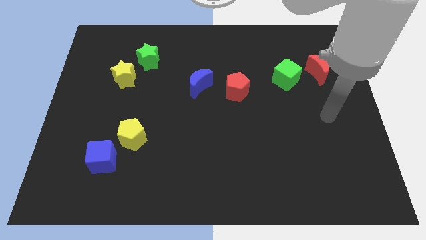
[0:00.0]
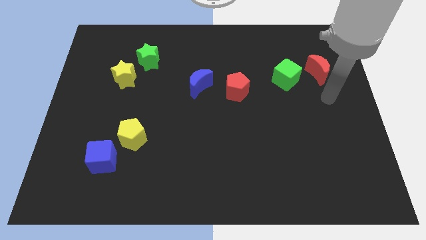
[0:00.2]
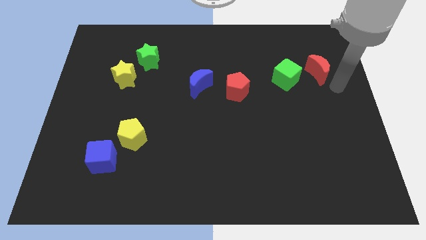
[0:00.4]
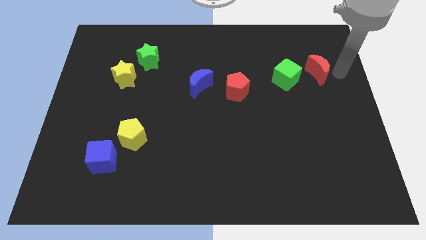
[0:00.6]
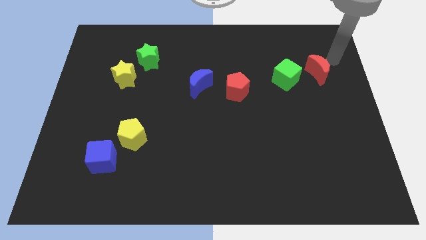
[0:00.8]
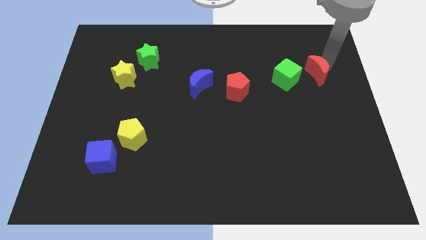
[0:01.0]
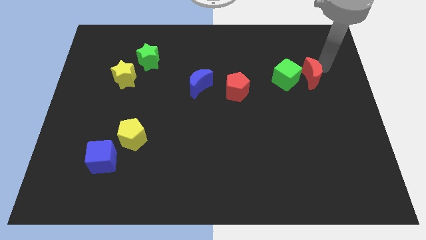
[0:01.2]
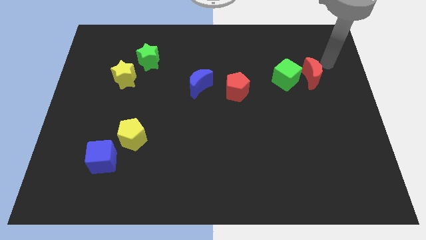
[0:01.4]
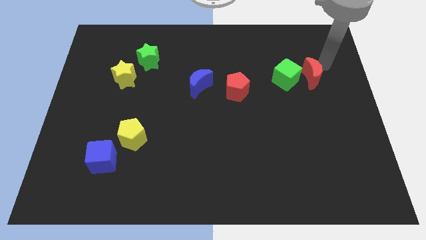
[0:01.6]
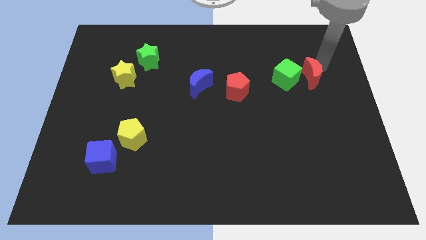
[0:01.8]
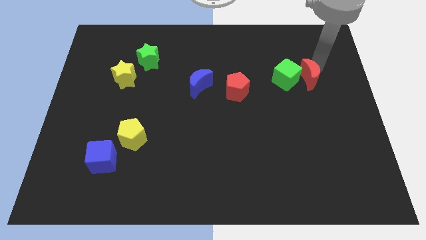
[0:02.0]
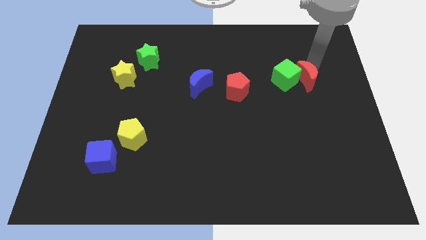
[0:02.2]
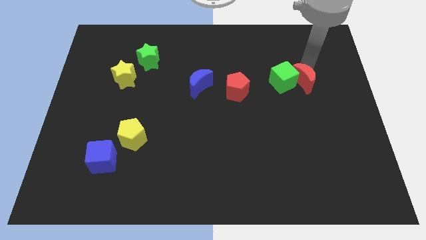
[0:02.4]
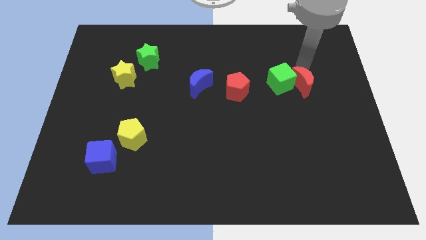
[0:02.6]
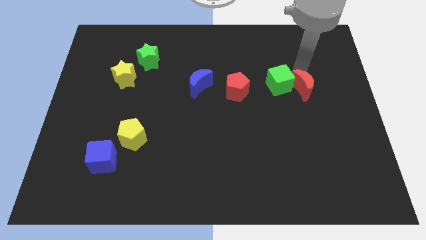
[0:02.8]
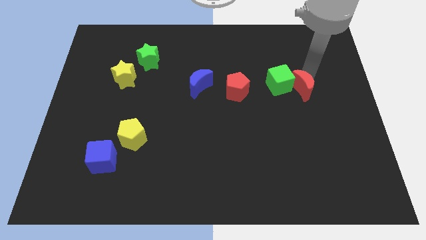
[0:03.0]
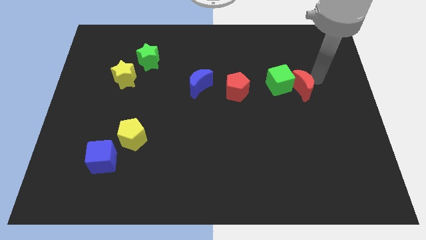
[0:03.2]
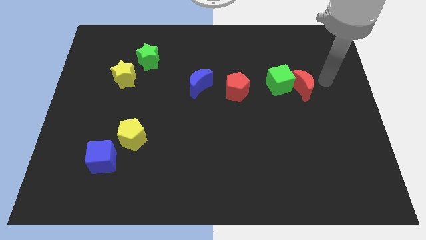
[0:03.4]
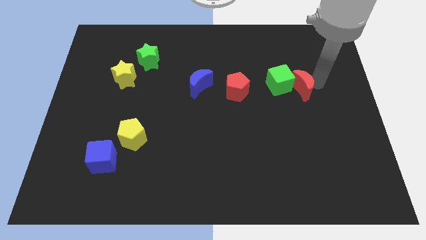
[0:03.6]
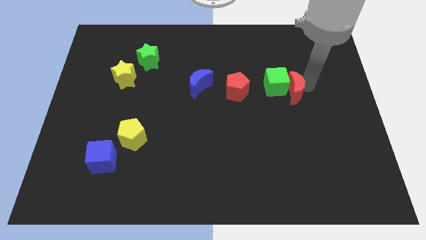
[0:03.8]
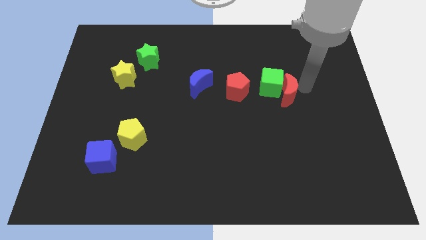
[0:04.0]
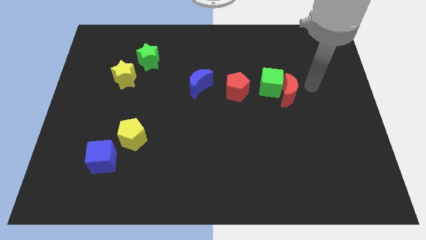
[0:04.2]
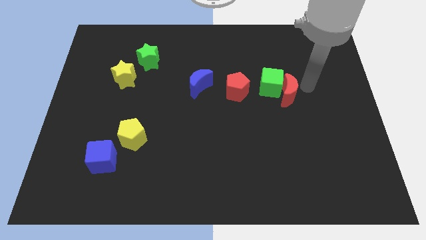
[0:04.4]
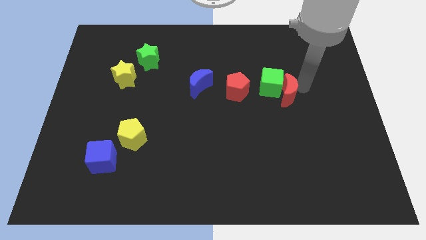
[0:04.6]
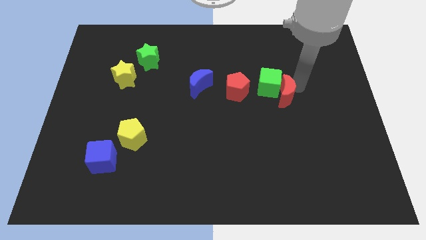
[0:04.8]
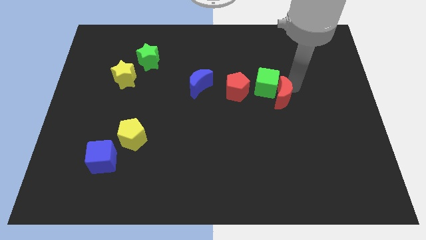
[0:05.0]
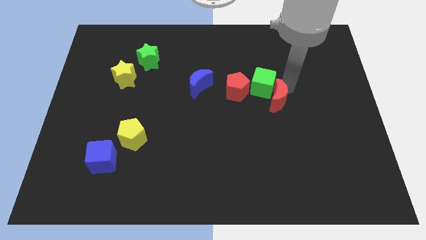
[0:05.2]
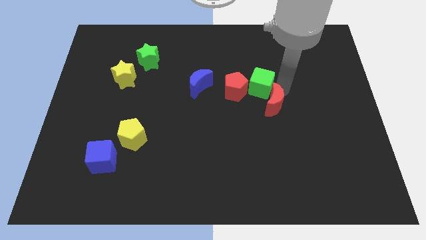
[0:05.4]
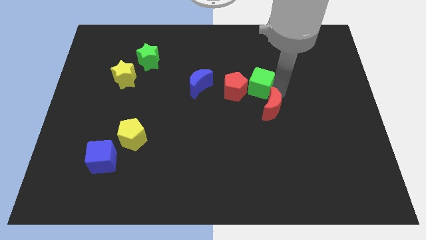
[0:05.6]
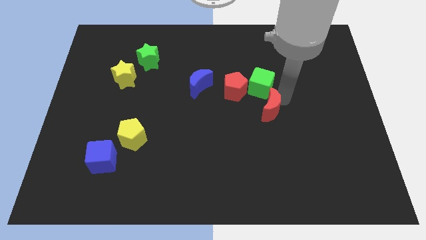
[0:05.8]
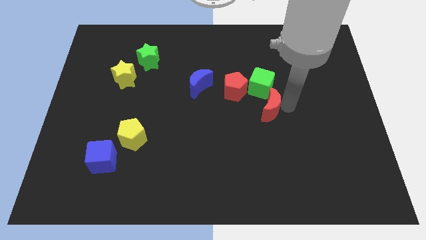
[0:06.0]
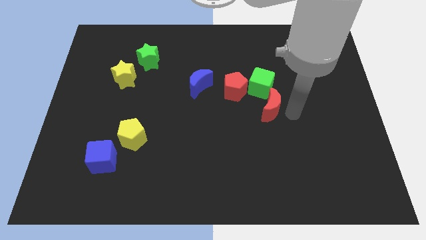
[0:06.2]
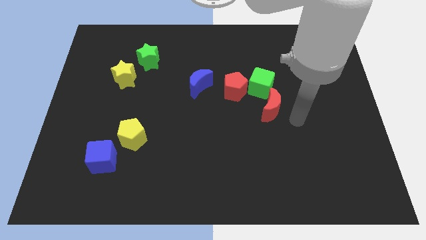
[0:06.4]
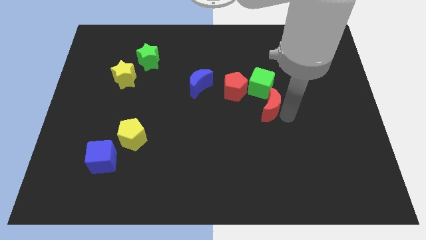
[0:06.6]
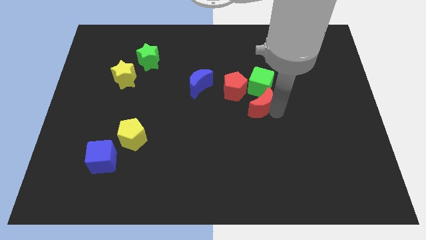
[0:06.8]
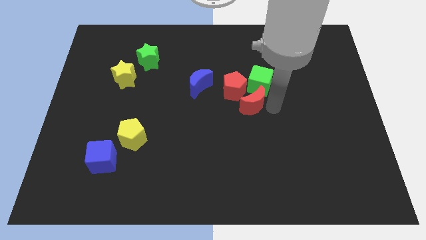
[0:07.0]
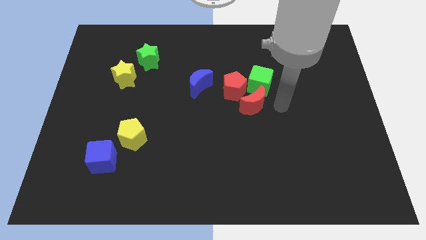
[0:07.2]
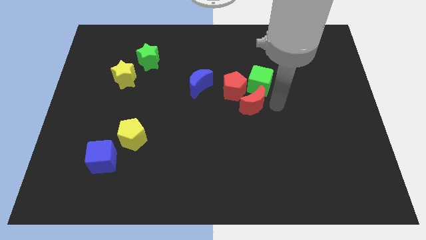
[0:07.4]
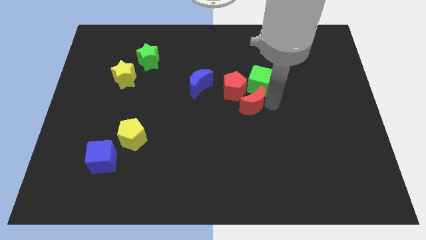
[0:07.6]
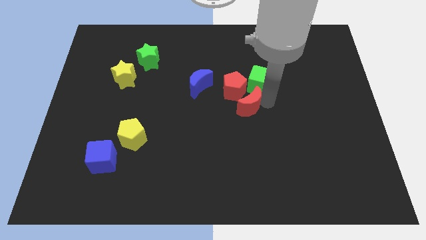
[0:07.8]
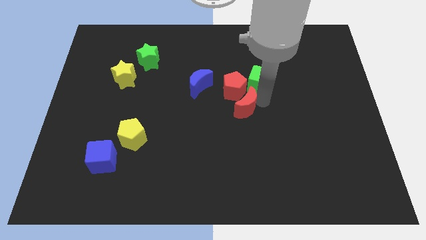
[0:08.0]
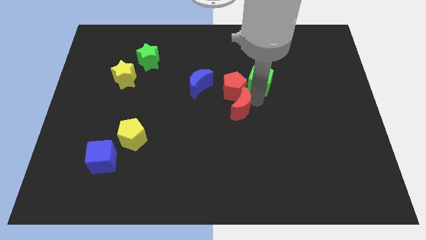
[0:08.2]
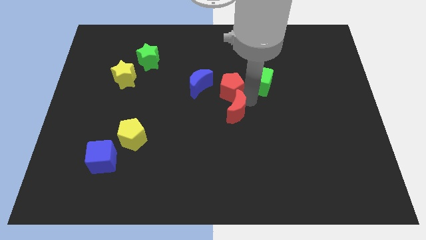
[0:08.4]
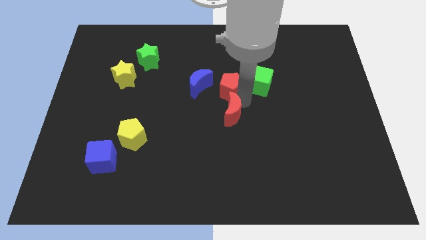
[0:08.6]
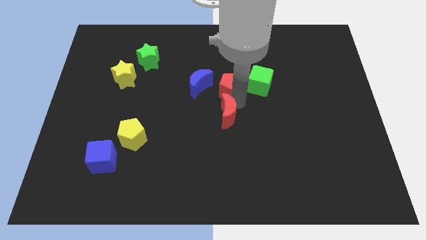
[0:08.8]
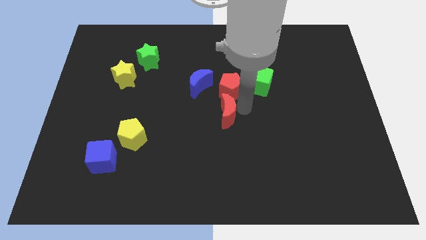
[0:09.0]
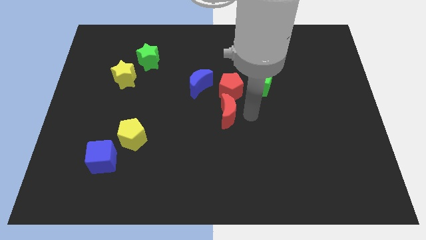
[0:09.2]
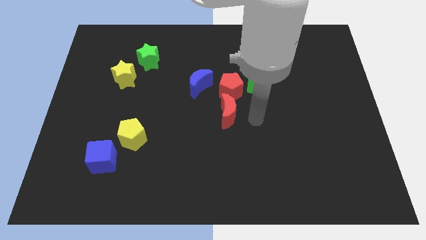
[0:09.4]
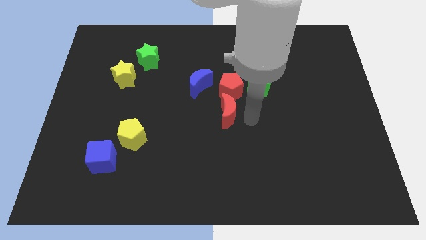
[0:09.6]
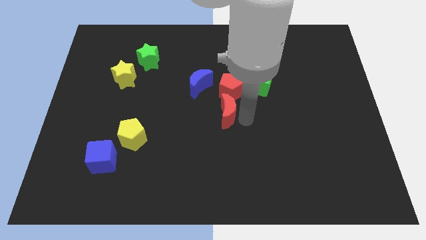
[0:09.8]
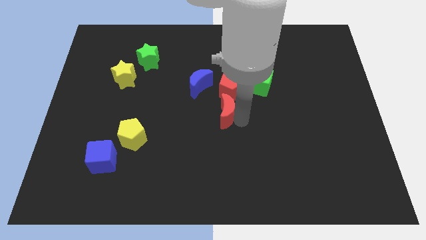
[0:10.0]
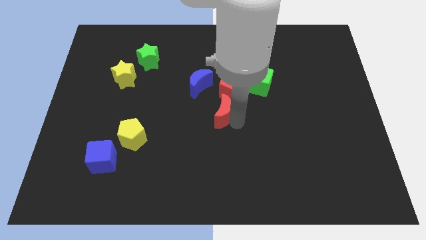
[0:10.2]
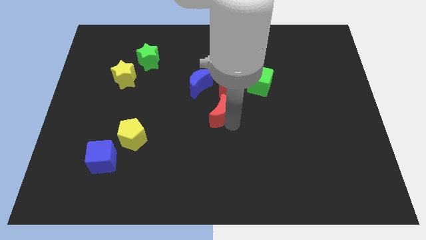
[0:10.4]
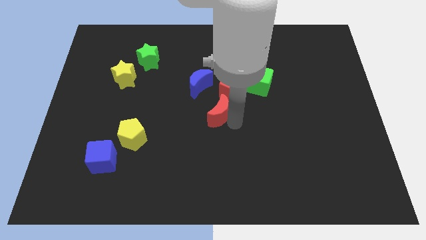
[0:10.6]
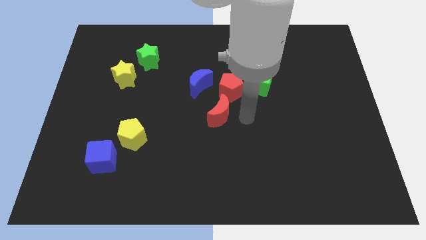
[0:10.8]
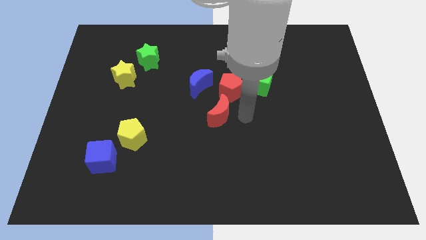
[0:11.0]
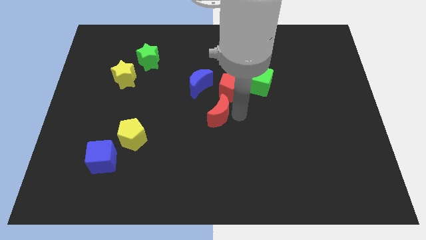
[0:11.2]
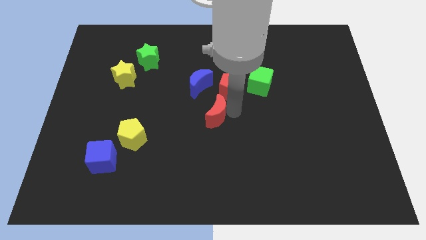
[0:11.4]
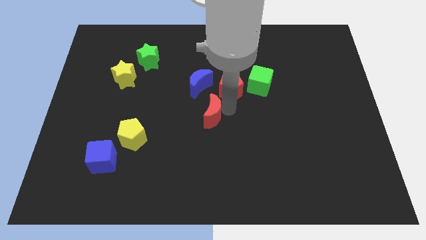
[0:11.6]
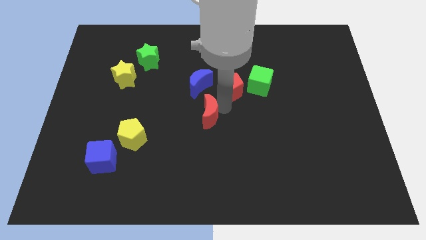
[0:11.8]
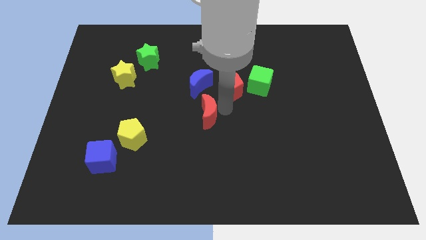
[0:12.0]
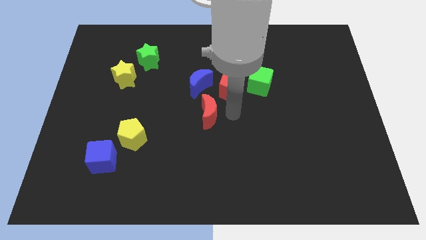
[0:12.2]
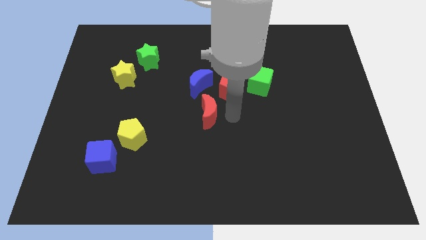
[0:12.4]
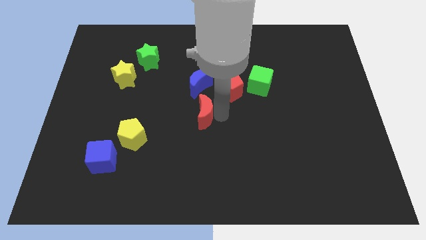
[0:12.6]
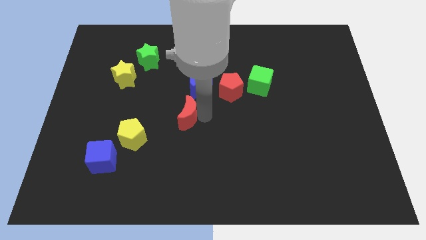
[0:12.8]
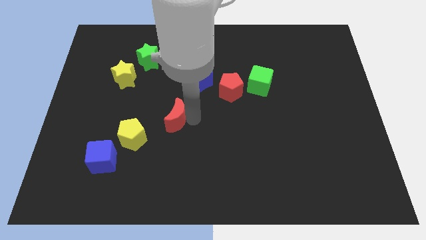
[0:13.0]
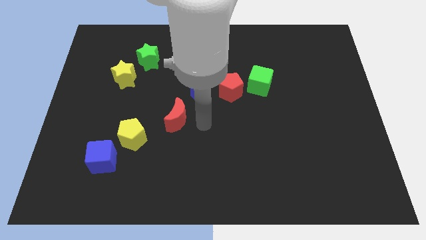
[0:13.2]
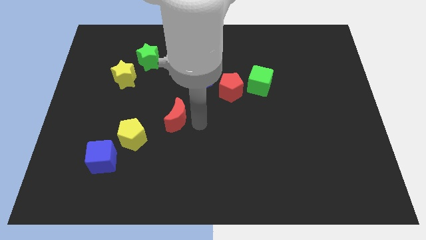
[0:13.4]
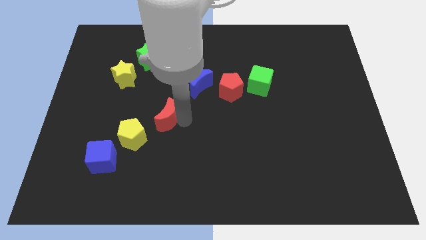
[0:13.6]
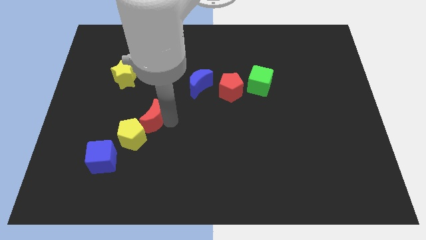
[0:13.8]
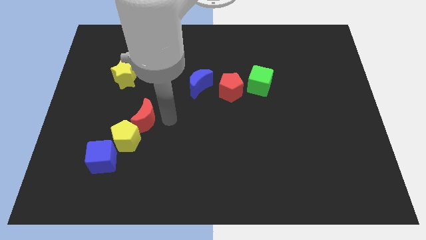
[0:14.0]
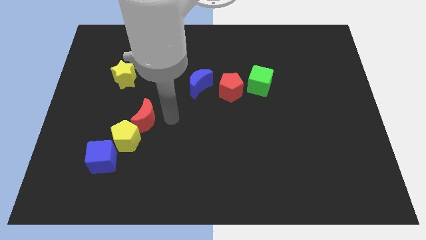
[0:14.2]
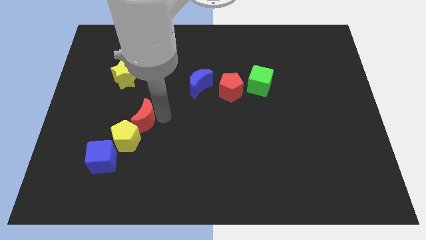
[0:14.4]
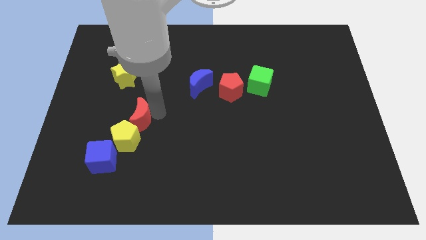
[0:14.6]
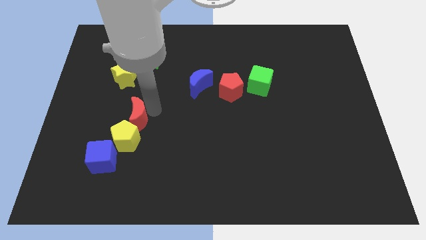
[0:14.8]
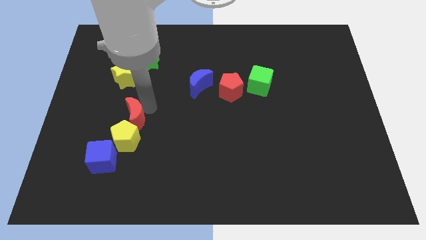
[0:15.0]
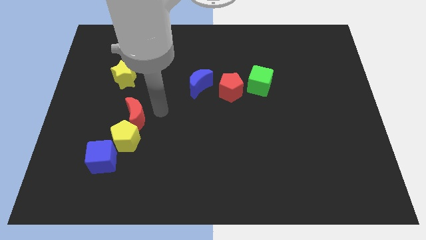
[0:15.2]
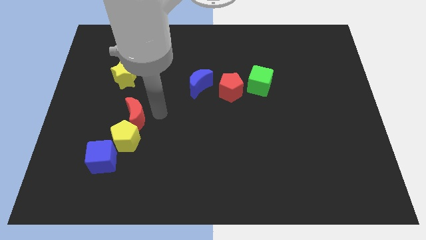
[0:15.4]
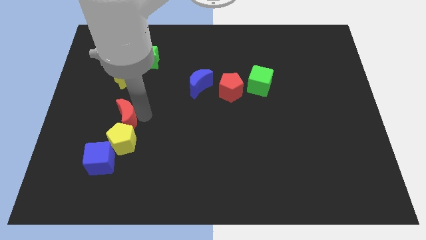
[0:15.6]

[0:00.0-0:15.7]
push the red moon to the top left of the yellow pentagon
